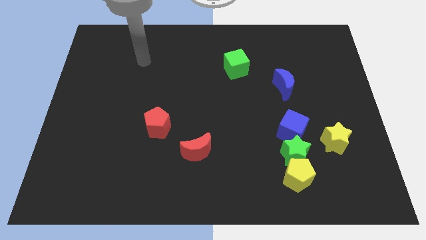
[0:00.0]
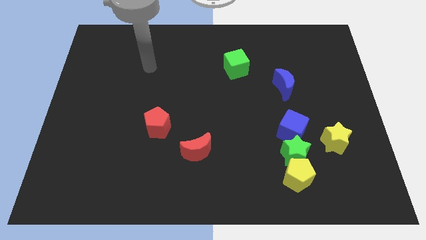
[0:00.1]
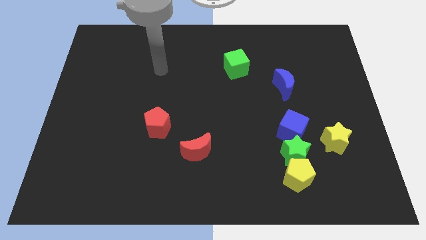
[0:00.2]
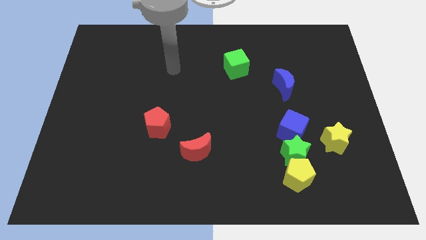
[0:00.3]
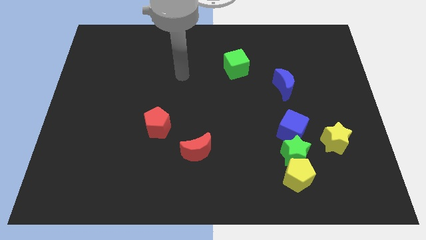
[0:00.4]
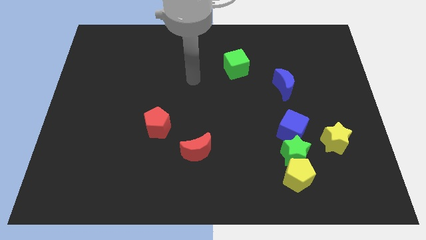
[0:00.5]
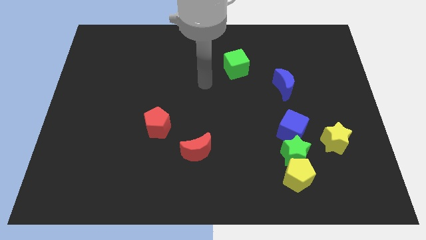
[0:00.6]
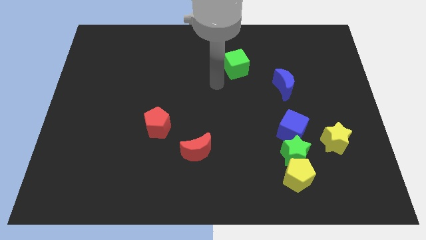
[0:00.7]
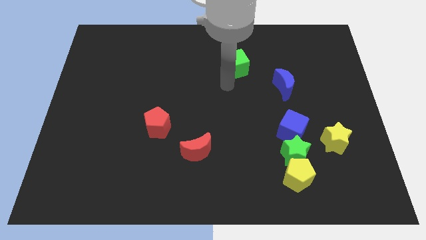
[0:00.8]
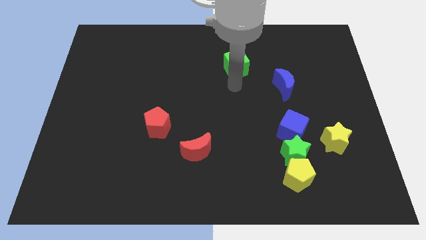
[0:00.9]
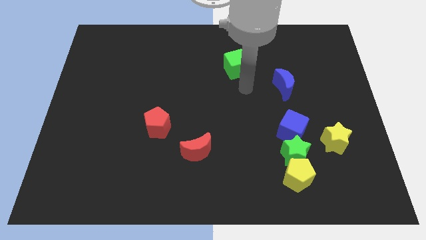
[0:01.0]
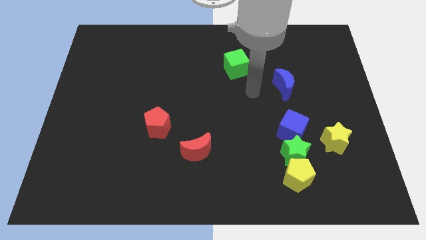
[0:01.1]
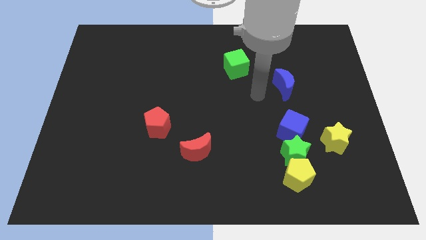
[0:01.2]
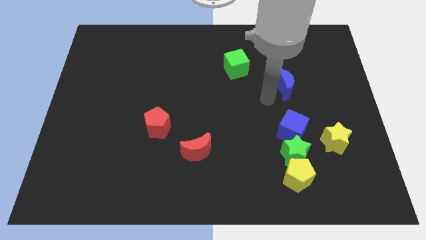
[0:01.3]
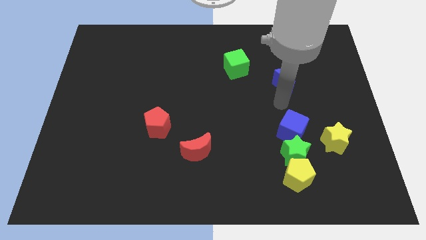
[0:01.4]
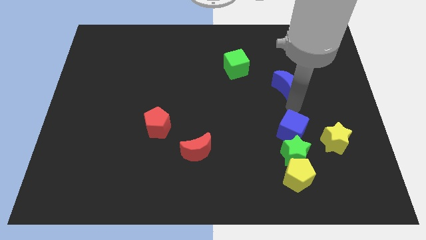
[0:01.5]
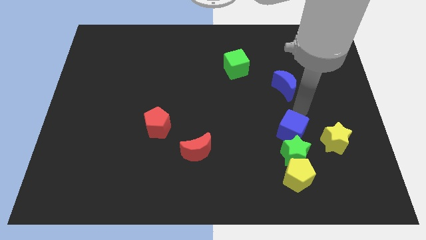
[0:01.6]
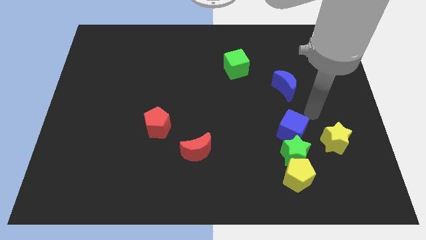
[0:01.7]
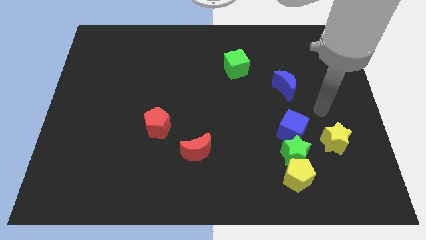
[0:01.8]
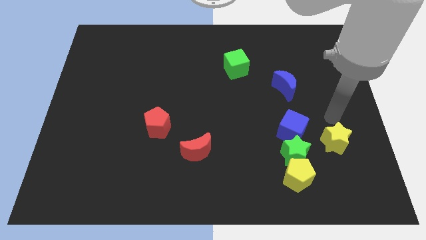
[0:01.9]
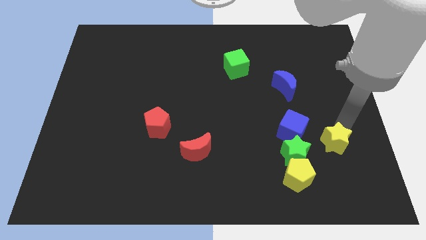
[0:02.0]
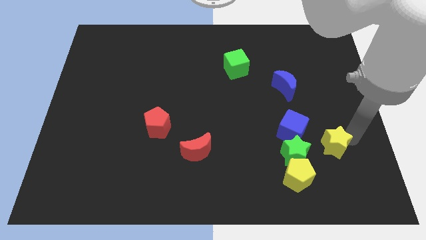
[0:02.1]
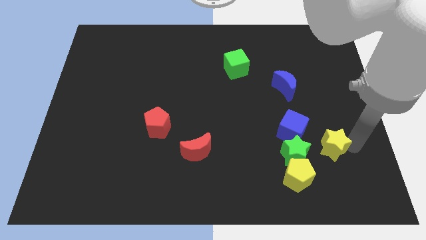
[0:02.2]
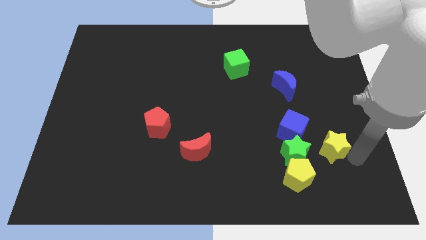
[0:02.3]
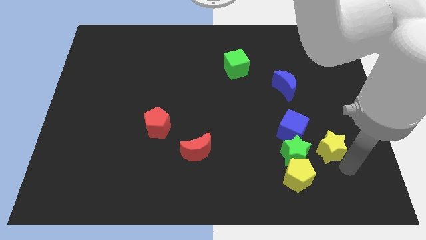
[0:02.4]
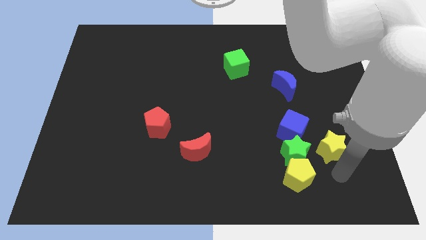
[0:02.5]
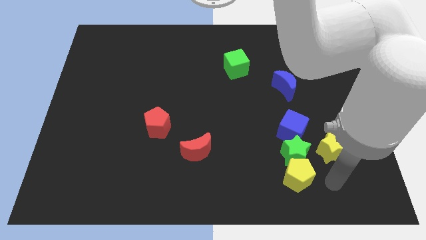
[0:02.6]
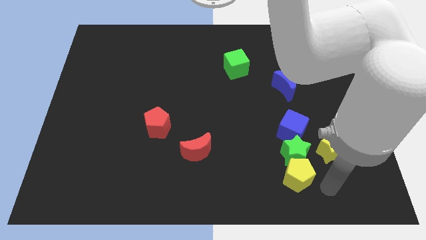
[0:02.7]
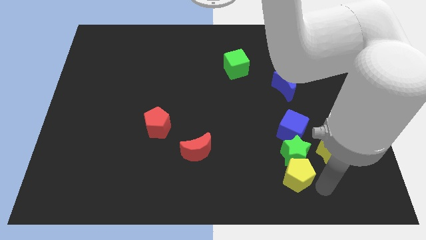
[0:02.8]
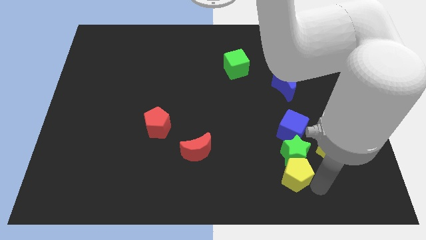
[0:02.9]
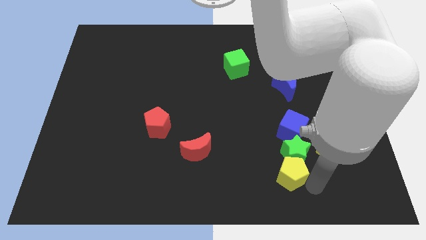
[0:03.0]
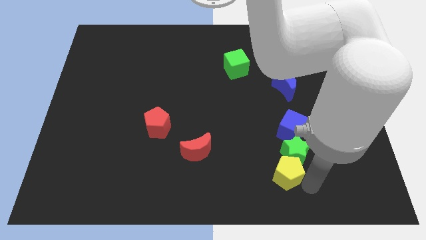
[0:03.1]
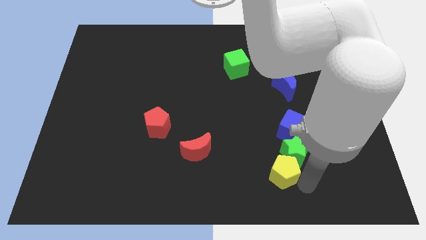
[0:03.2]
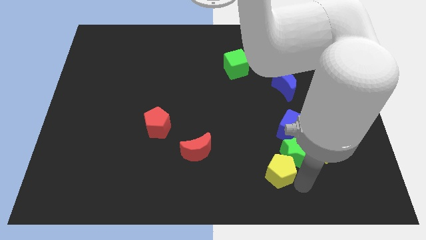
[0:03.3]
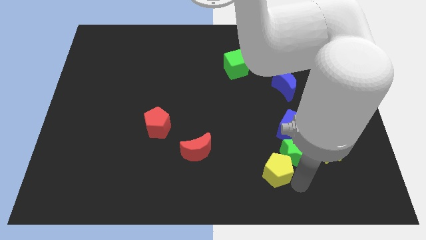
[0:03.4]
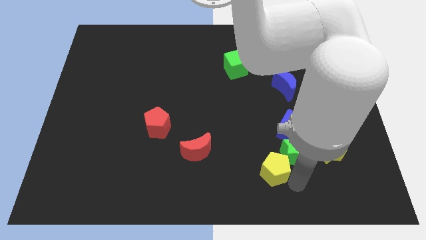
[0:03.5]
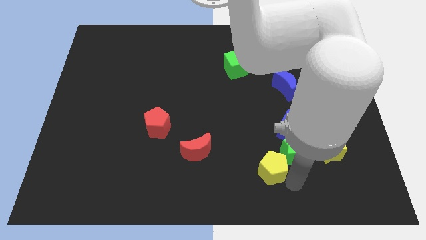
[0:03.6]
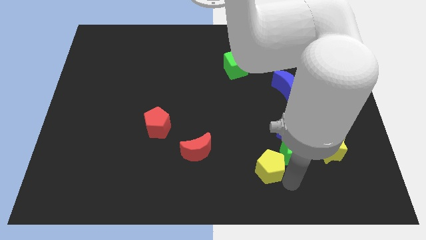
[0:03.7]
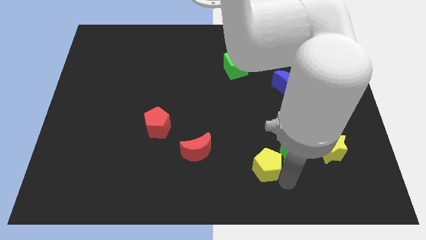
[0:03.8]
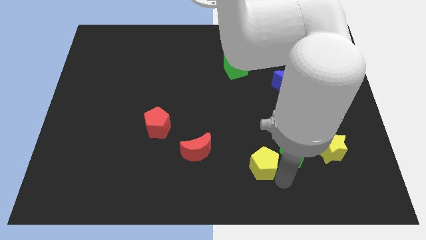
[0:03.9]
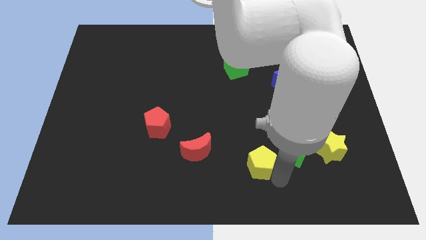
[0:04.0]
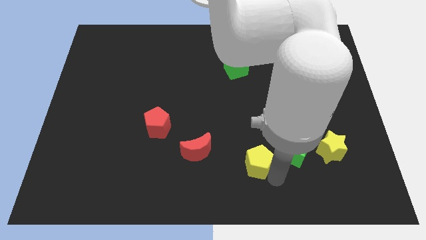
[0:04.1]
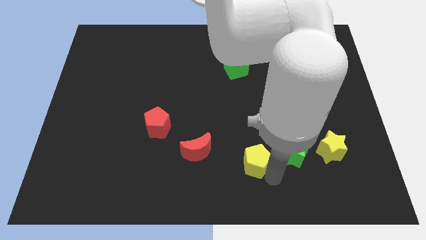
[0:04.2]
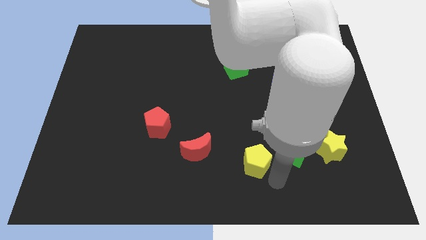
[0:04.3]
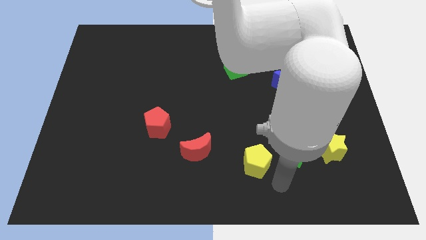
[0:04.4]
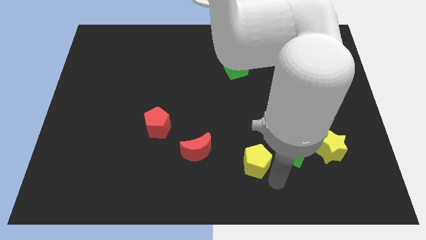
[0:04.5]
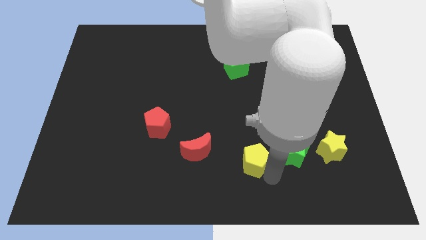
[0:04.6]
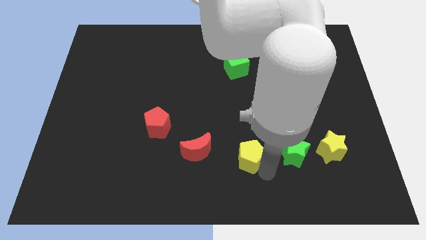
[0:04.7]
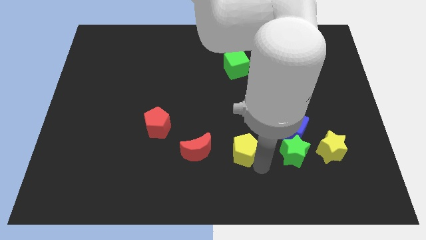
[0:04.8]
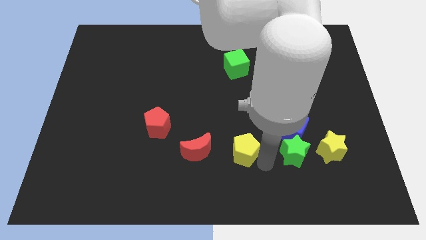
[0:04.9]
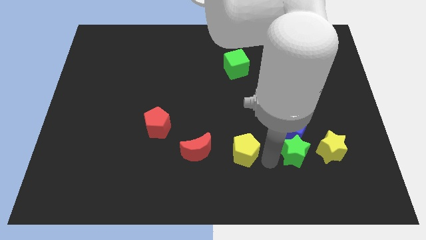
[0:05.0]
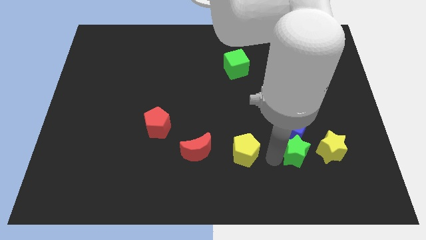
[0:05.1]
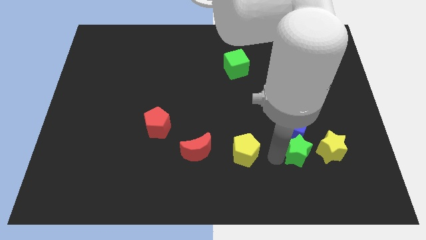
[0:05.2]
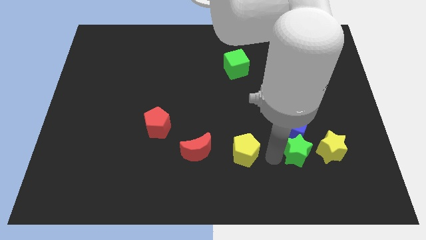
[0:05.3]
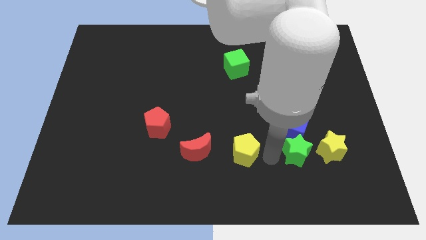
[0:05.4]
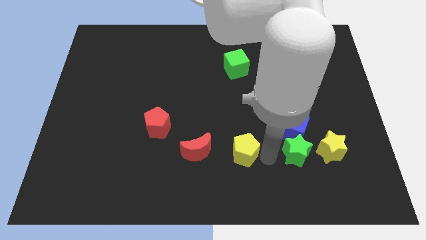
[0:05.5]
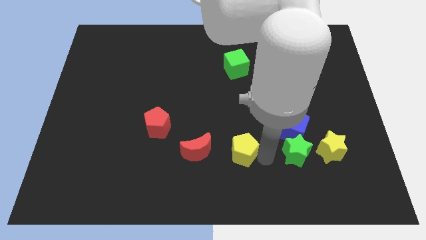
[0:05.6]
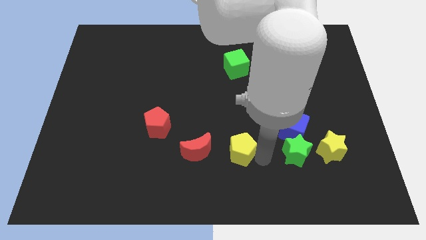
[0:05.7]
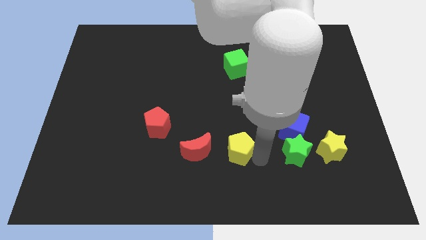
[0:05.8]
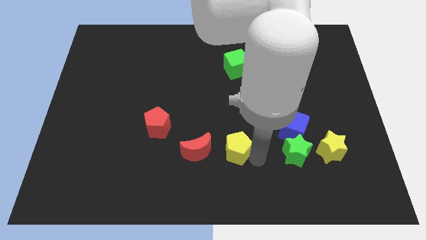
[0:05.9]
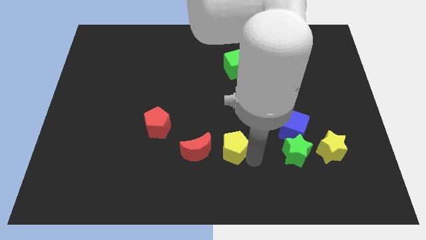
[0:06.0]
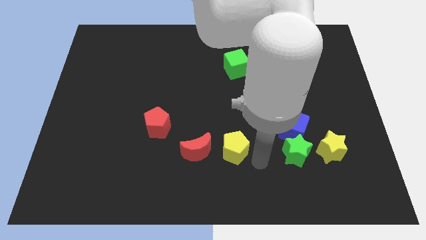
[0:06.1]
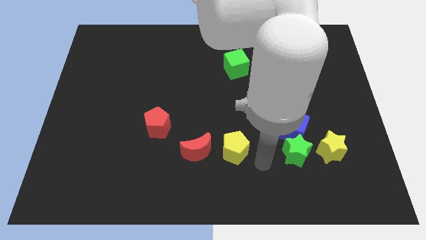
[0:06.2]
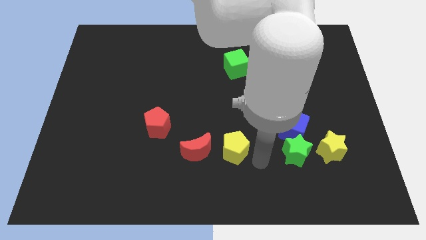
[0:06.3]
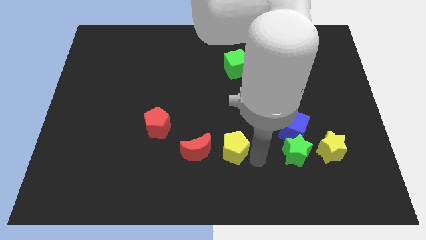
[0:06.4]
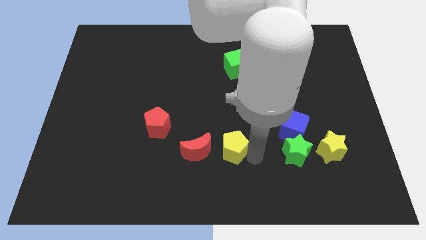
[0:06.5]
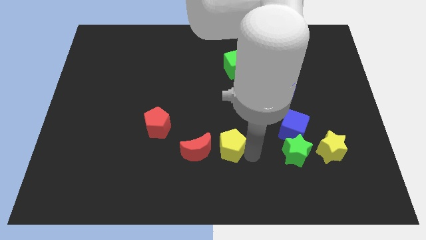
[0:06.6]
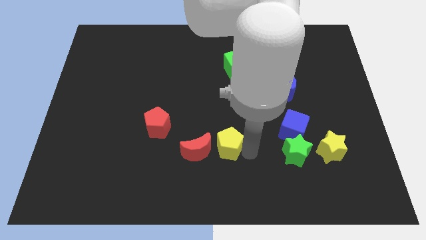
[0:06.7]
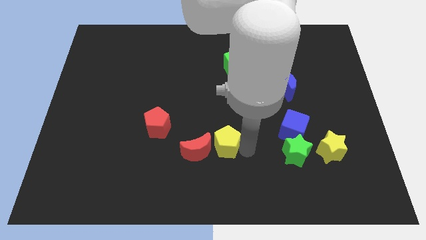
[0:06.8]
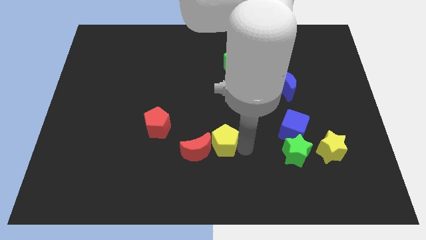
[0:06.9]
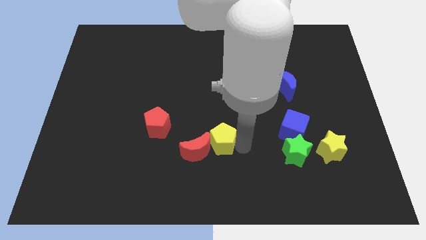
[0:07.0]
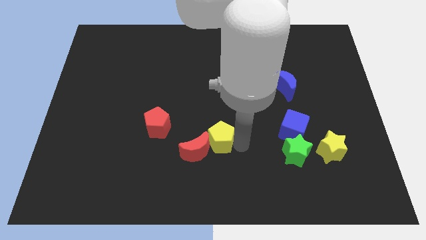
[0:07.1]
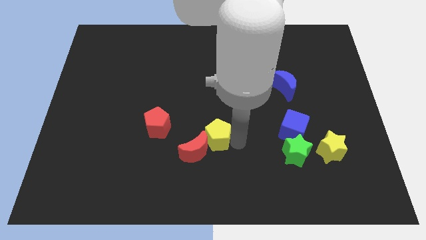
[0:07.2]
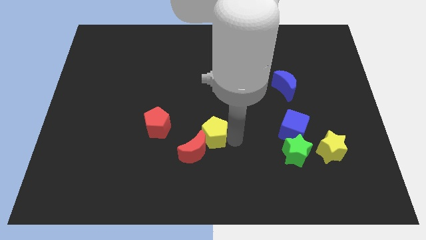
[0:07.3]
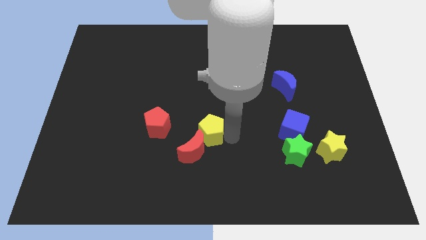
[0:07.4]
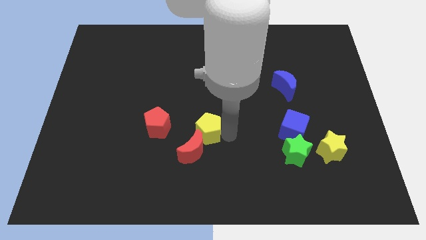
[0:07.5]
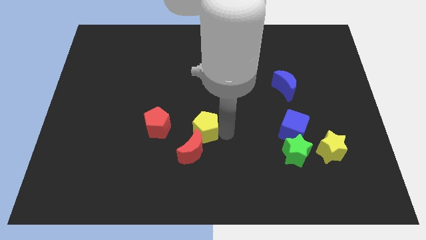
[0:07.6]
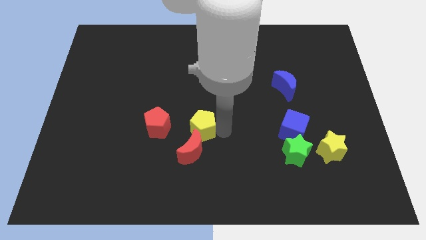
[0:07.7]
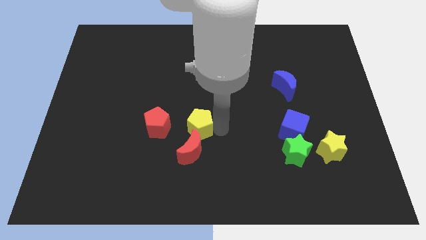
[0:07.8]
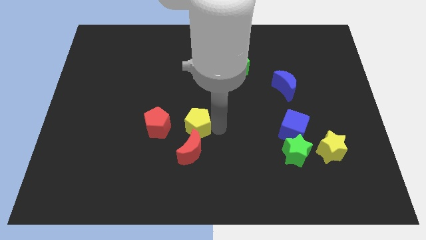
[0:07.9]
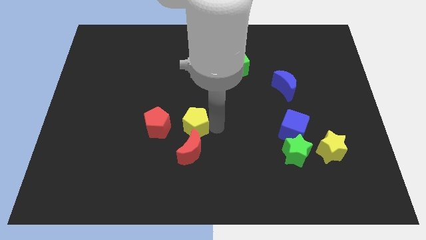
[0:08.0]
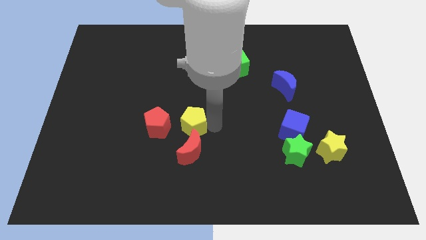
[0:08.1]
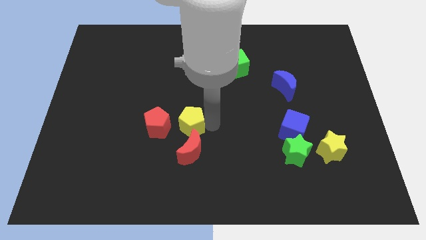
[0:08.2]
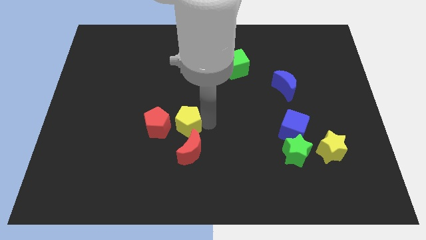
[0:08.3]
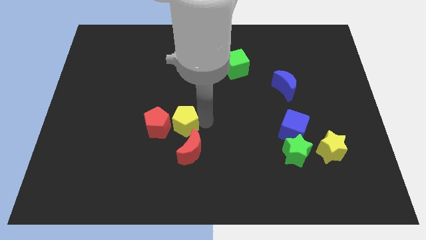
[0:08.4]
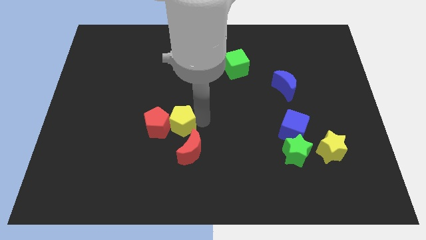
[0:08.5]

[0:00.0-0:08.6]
move the yellow pentagon towards the red pentagon
